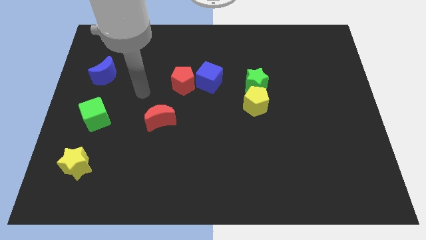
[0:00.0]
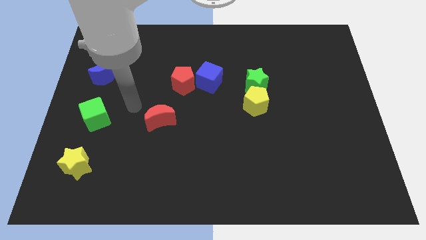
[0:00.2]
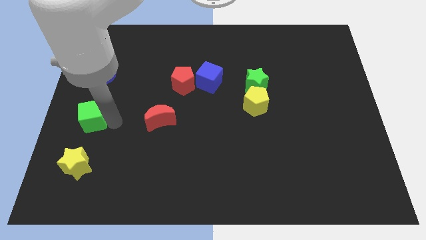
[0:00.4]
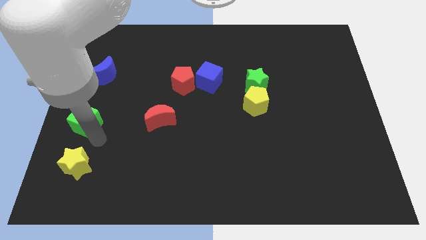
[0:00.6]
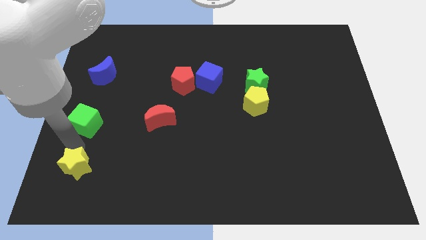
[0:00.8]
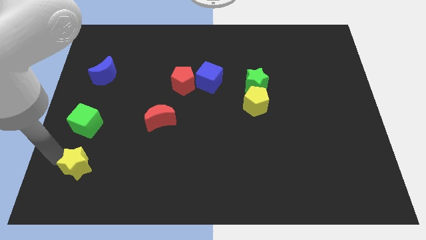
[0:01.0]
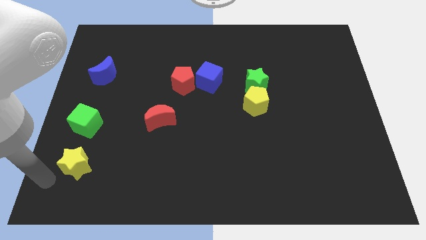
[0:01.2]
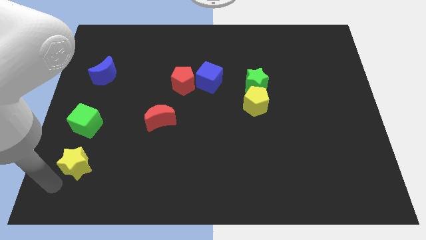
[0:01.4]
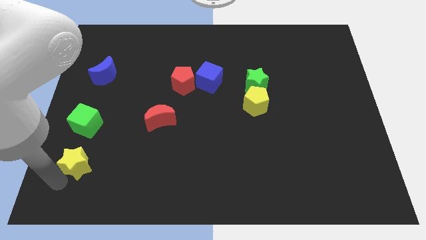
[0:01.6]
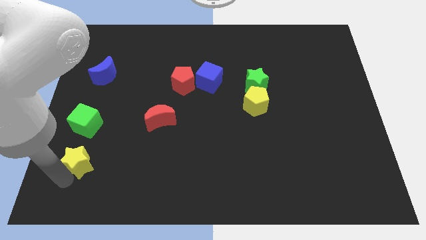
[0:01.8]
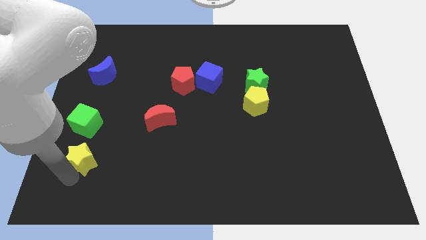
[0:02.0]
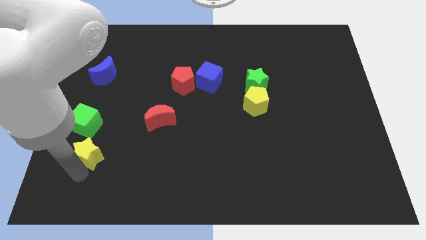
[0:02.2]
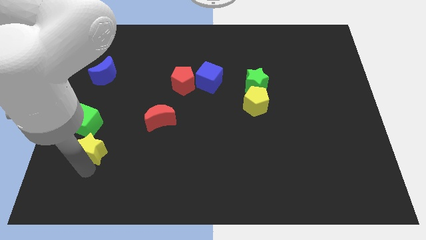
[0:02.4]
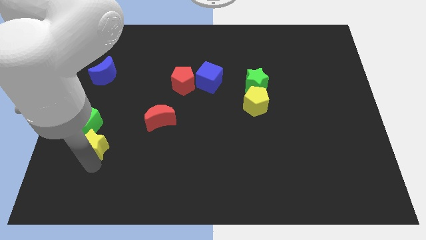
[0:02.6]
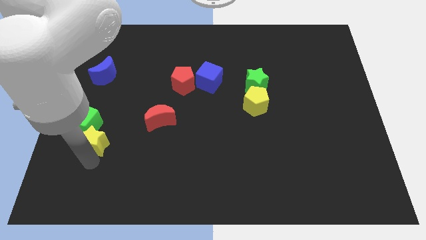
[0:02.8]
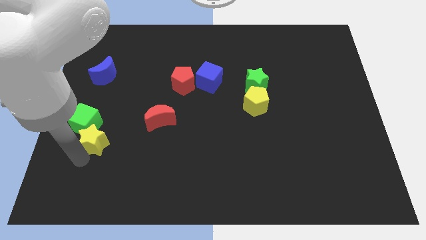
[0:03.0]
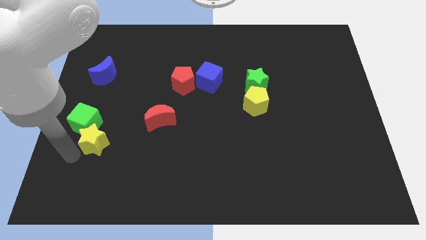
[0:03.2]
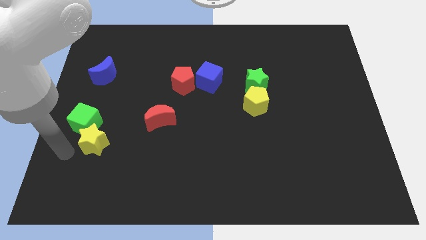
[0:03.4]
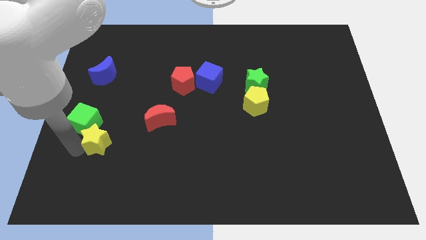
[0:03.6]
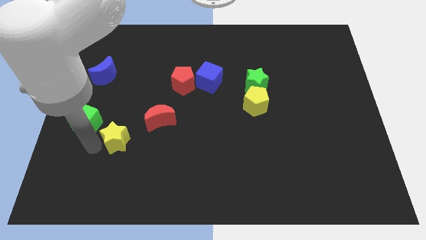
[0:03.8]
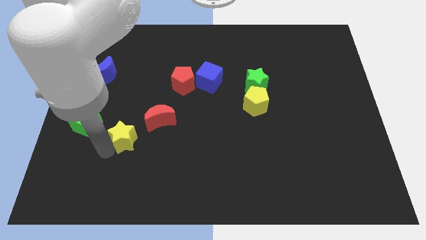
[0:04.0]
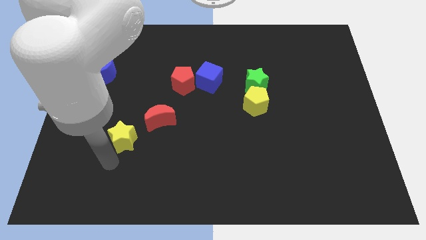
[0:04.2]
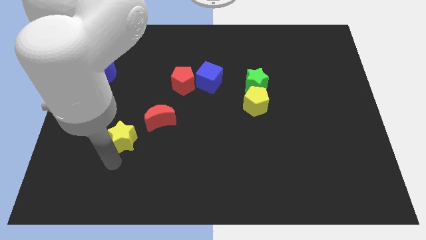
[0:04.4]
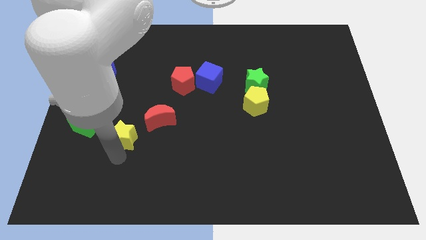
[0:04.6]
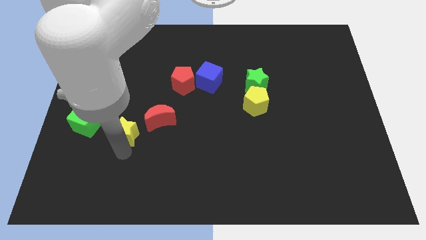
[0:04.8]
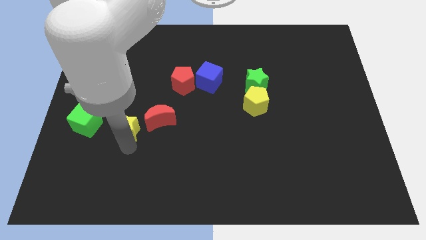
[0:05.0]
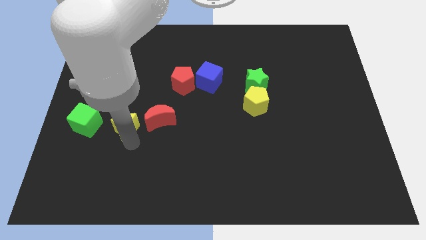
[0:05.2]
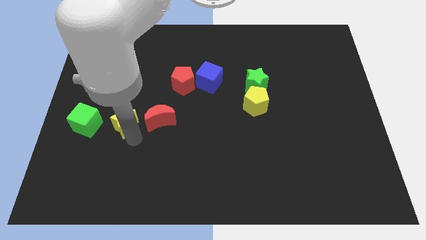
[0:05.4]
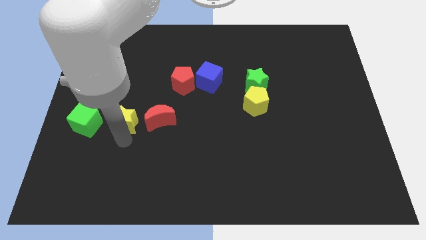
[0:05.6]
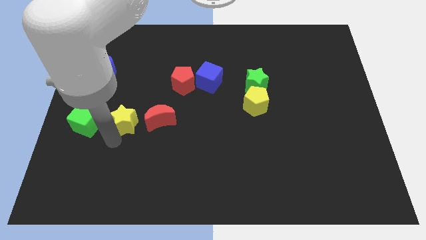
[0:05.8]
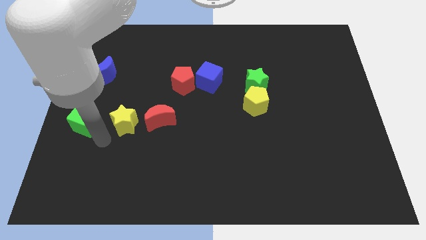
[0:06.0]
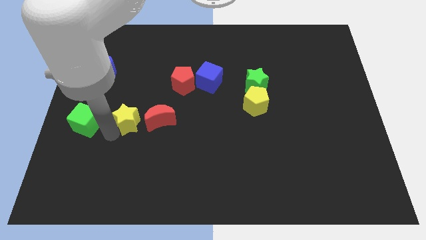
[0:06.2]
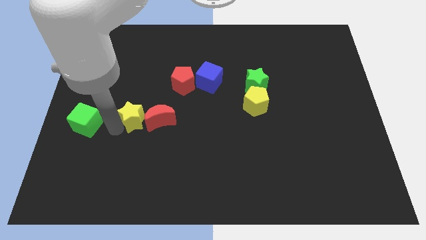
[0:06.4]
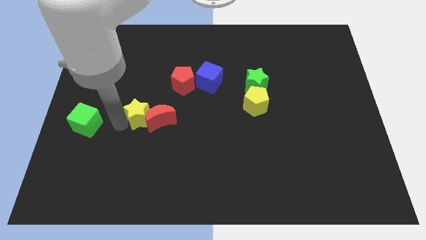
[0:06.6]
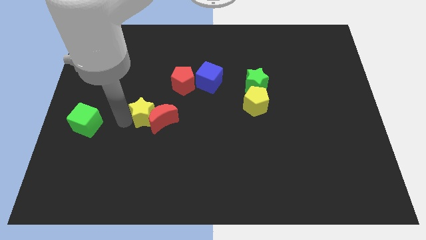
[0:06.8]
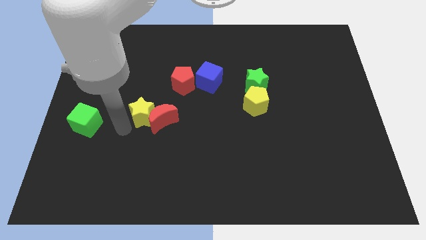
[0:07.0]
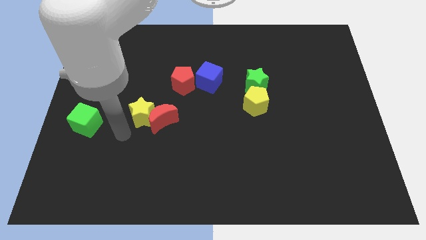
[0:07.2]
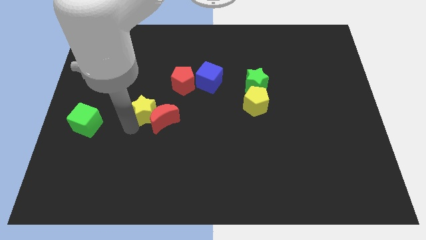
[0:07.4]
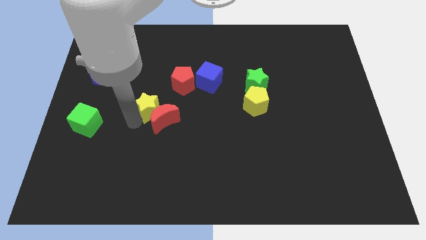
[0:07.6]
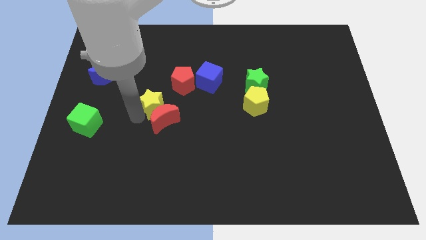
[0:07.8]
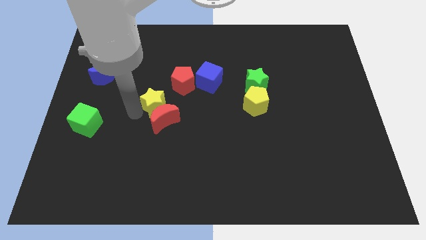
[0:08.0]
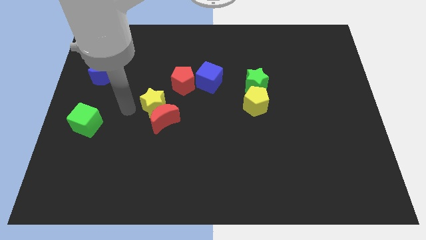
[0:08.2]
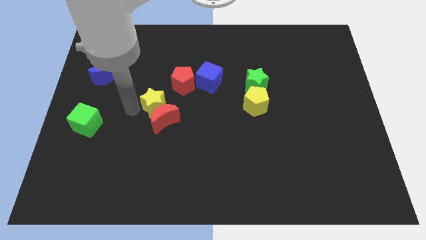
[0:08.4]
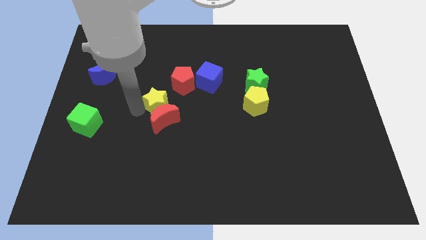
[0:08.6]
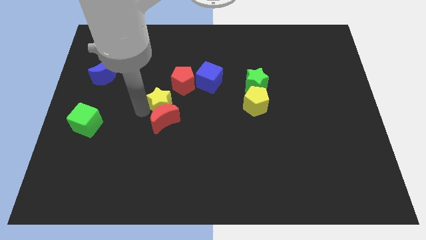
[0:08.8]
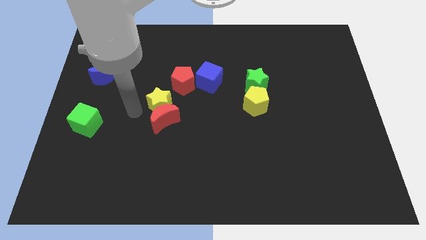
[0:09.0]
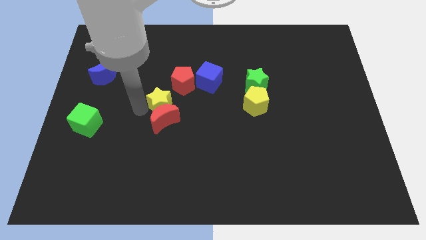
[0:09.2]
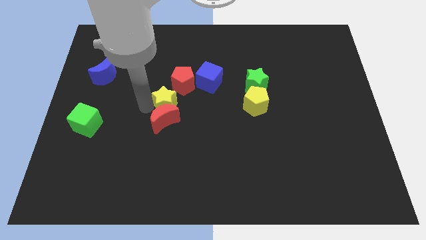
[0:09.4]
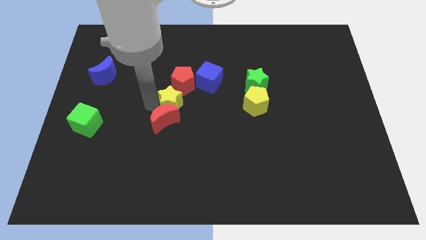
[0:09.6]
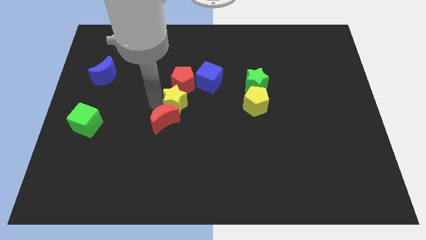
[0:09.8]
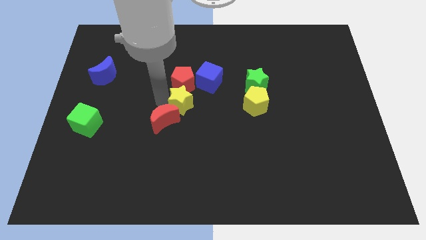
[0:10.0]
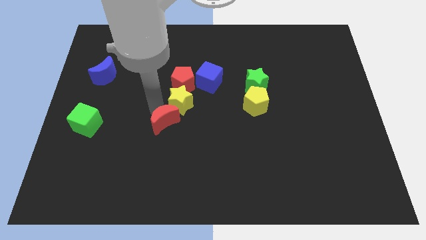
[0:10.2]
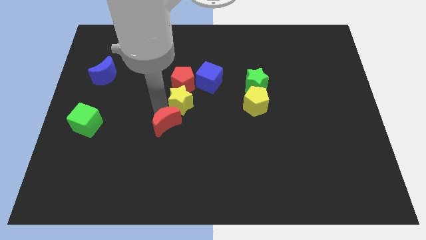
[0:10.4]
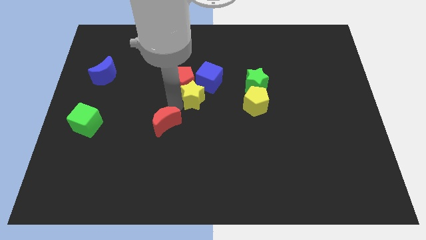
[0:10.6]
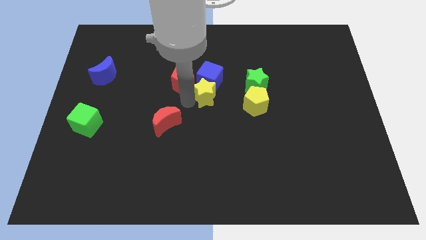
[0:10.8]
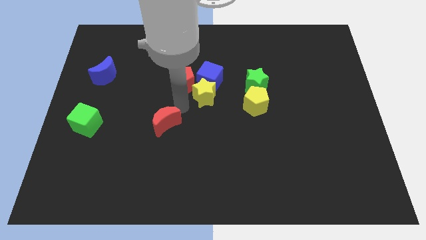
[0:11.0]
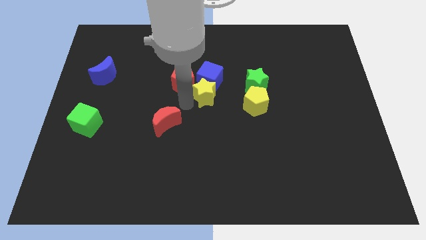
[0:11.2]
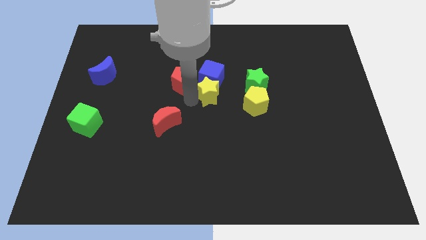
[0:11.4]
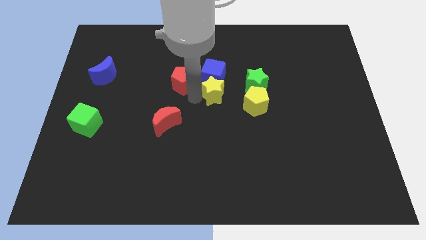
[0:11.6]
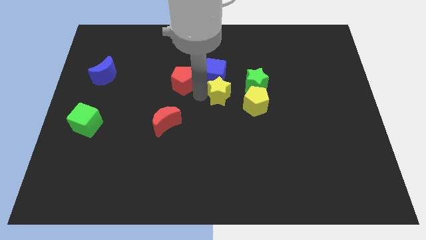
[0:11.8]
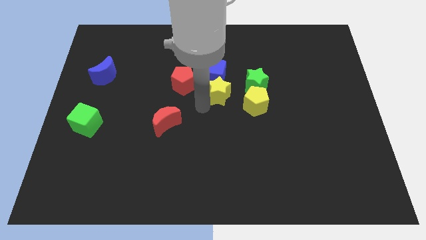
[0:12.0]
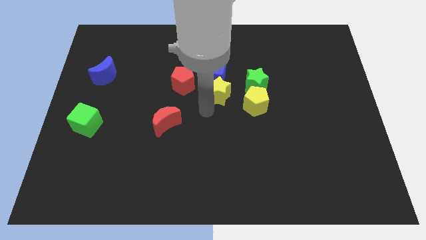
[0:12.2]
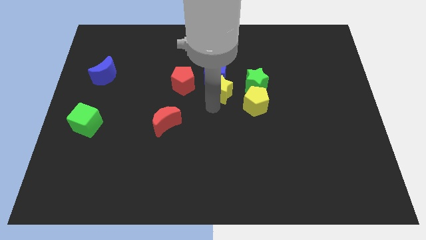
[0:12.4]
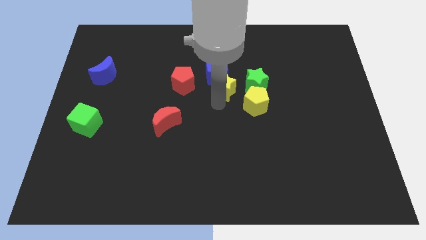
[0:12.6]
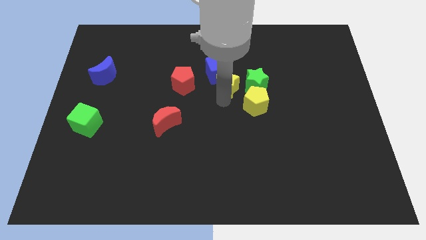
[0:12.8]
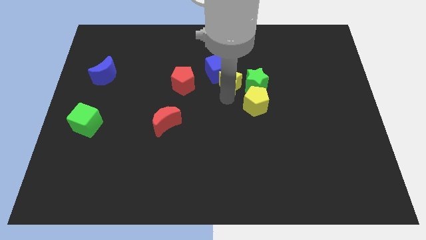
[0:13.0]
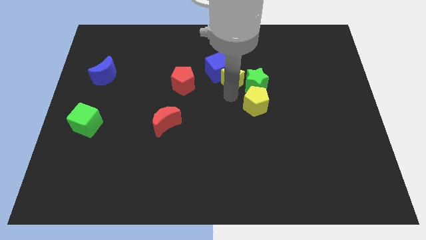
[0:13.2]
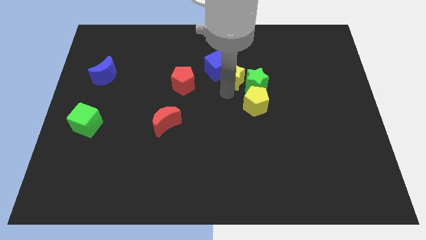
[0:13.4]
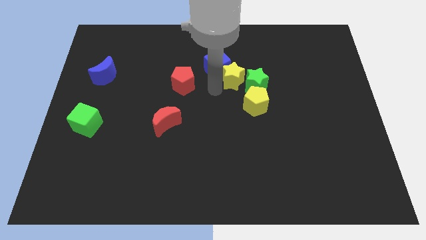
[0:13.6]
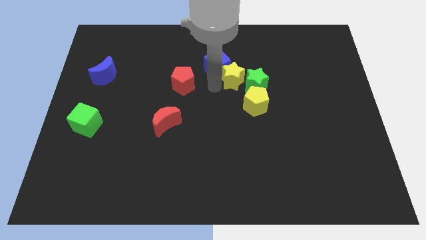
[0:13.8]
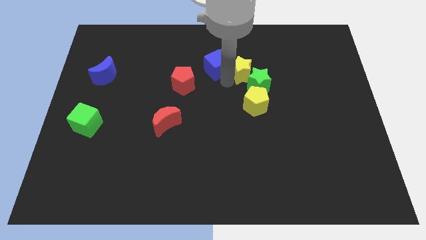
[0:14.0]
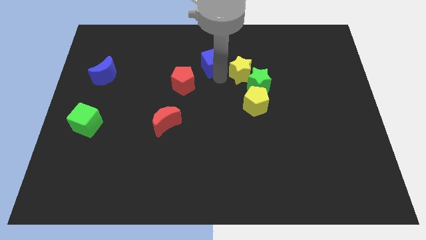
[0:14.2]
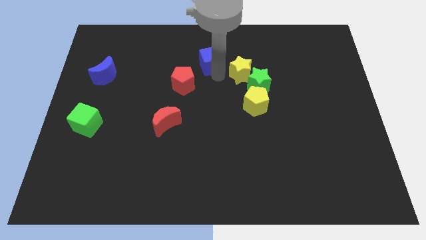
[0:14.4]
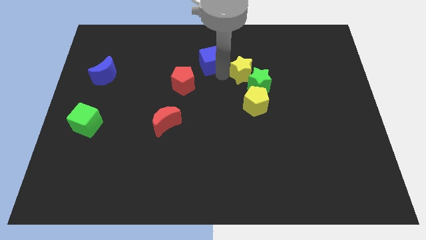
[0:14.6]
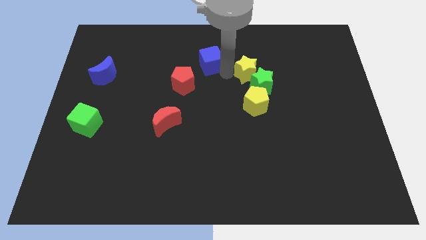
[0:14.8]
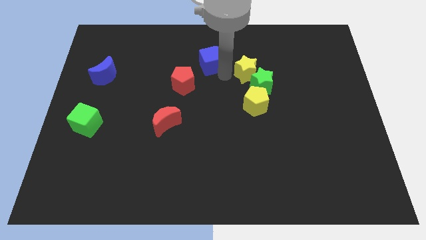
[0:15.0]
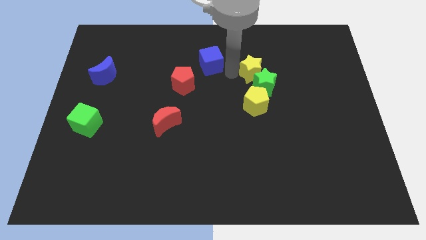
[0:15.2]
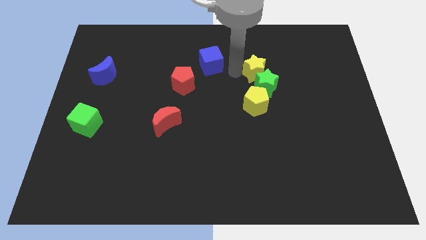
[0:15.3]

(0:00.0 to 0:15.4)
put the yellow star diagonally up and to the right of the green star
